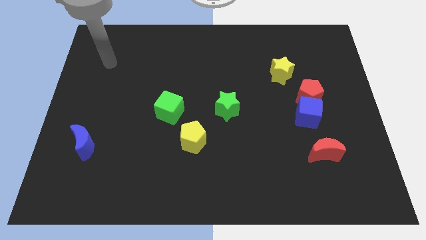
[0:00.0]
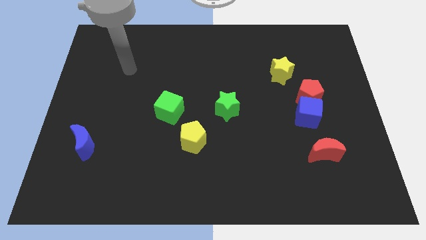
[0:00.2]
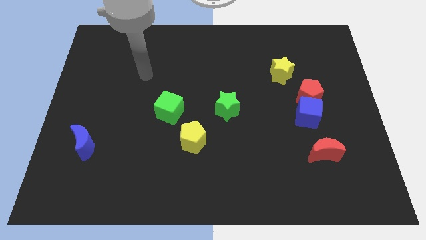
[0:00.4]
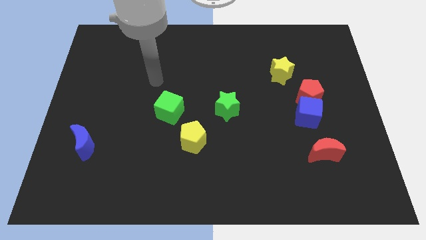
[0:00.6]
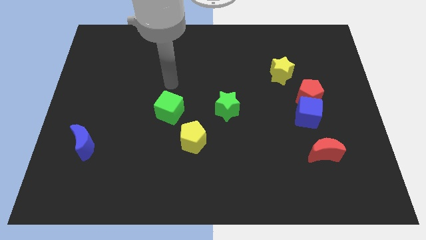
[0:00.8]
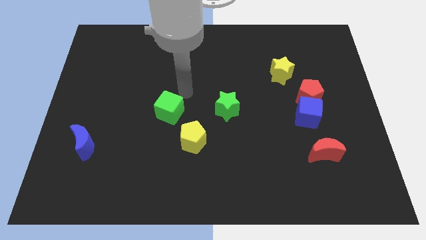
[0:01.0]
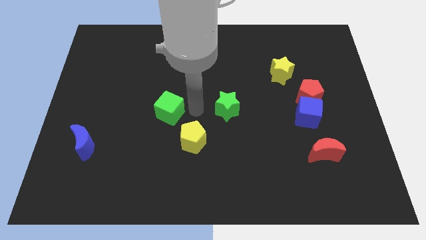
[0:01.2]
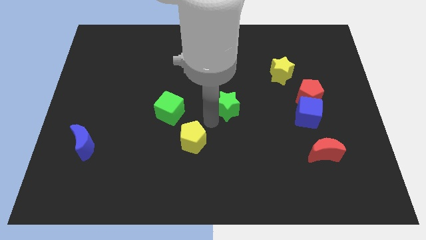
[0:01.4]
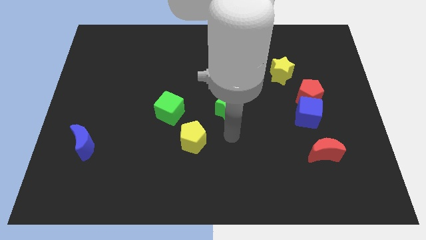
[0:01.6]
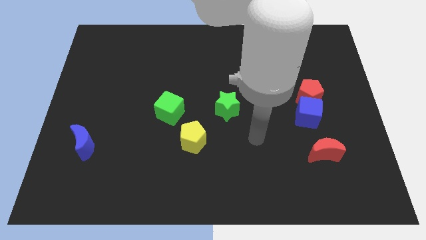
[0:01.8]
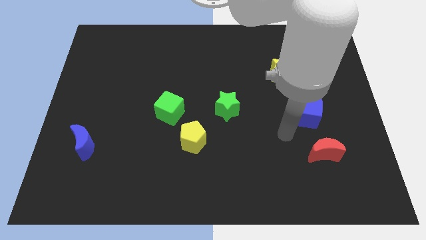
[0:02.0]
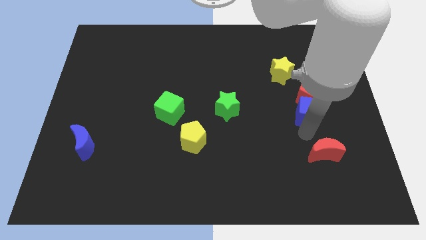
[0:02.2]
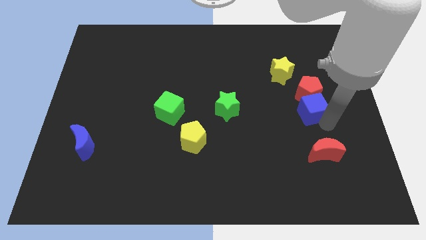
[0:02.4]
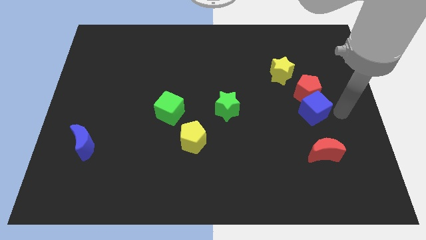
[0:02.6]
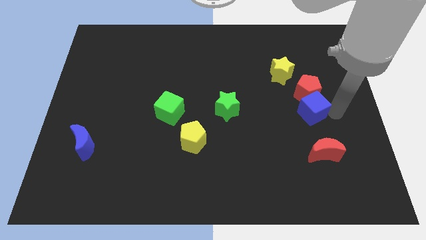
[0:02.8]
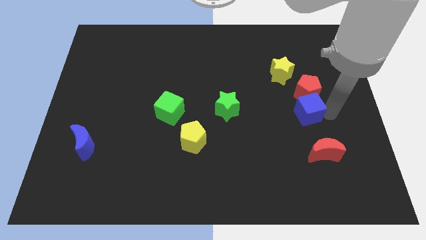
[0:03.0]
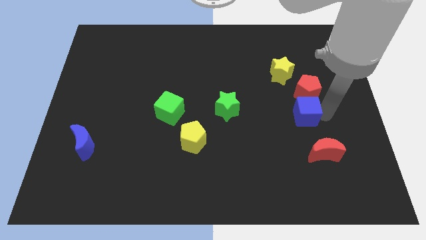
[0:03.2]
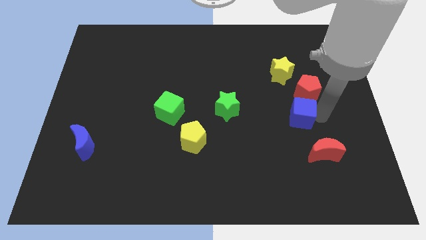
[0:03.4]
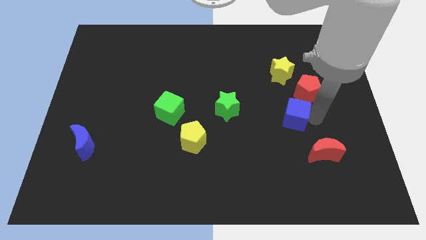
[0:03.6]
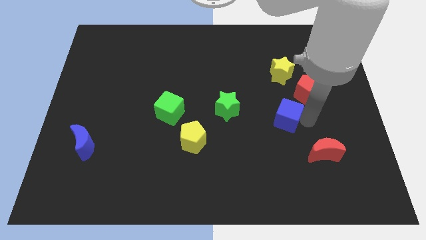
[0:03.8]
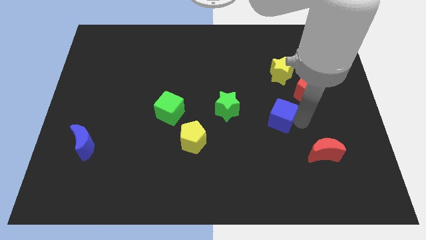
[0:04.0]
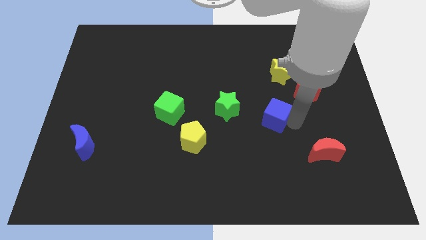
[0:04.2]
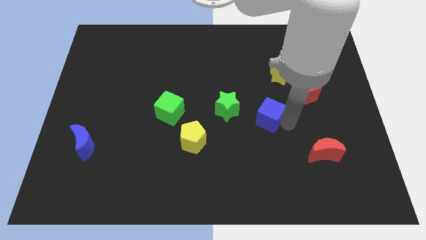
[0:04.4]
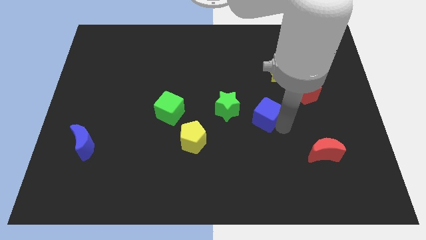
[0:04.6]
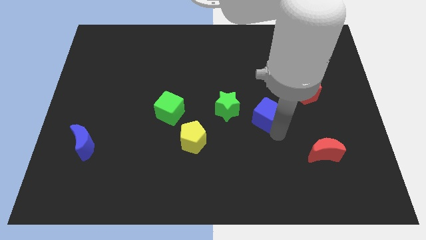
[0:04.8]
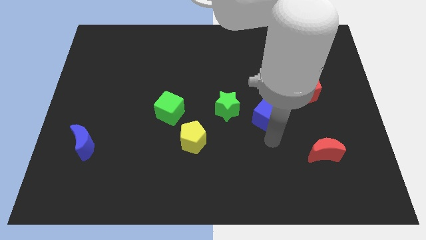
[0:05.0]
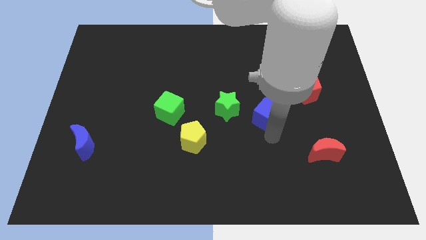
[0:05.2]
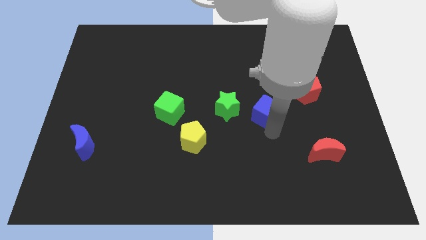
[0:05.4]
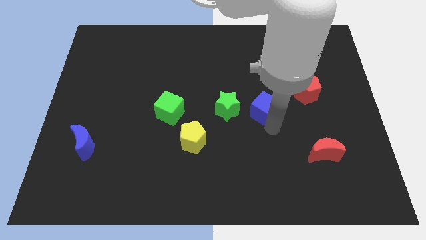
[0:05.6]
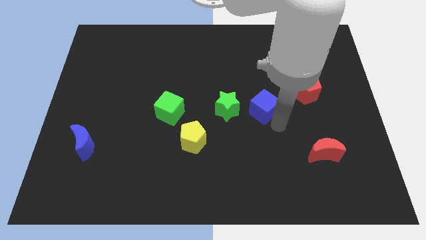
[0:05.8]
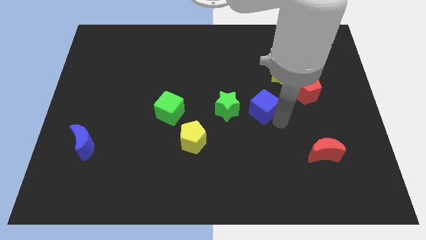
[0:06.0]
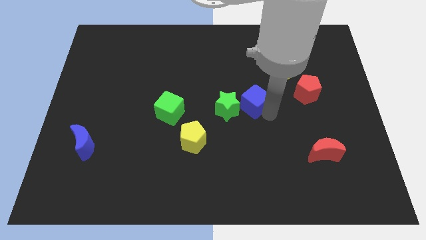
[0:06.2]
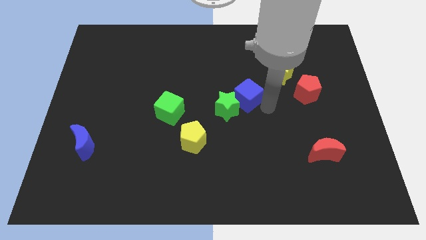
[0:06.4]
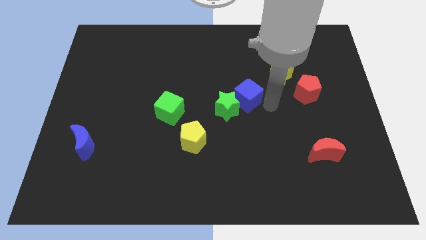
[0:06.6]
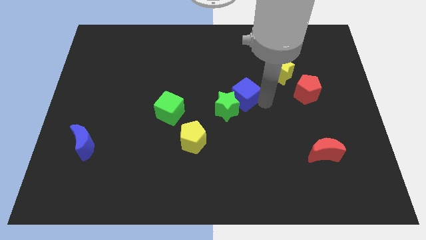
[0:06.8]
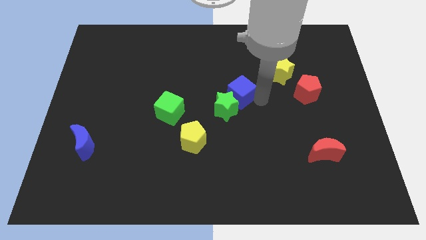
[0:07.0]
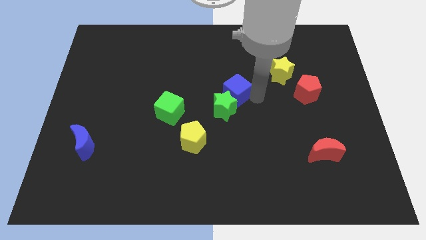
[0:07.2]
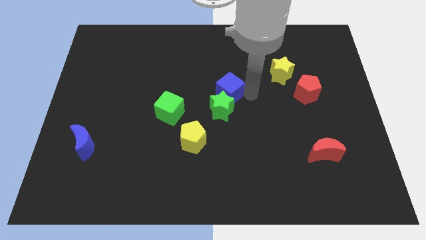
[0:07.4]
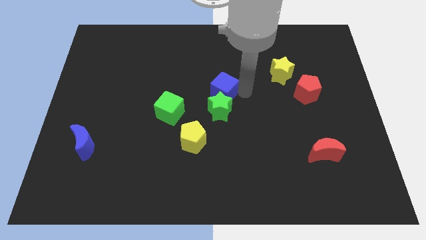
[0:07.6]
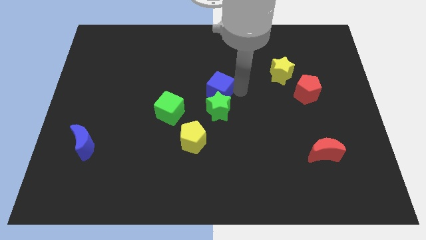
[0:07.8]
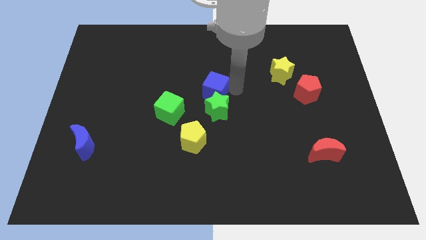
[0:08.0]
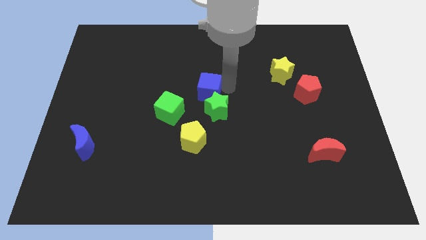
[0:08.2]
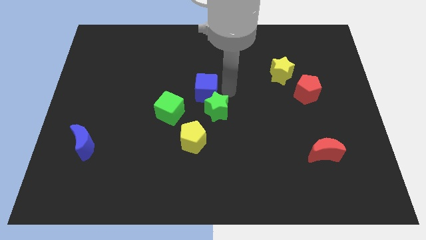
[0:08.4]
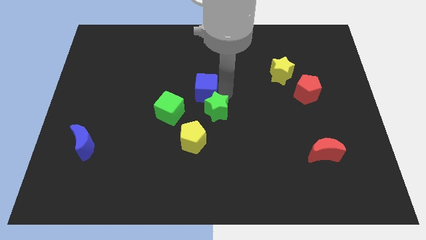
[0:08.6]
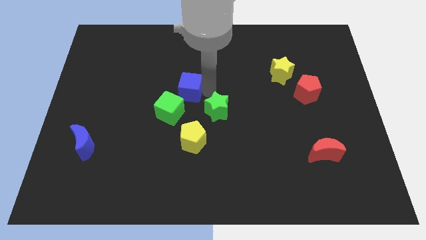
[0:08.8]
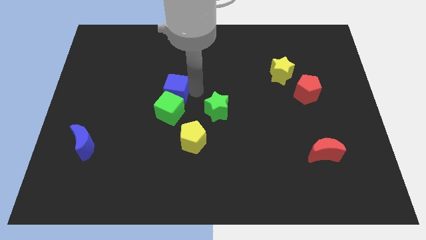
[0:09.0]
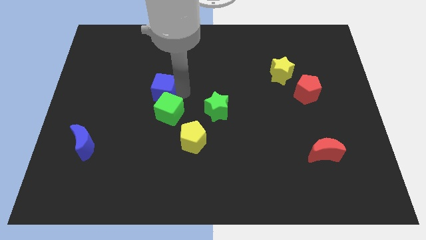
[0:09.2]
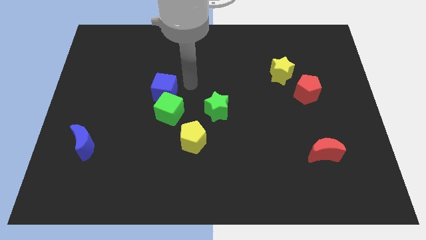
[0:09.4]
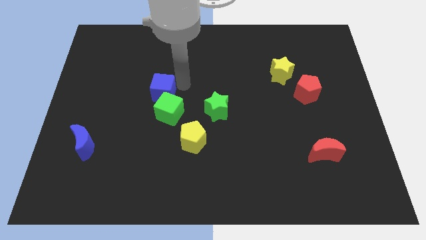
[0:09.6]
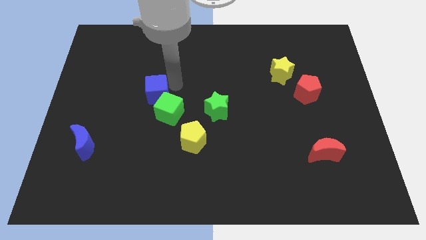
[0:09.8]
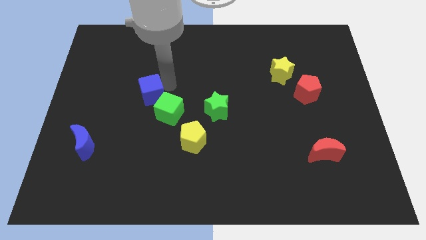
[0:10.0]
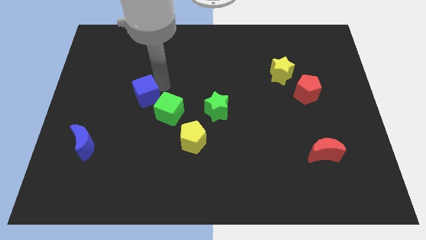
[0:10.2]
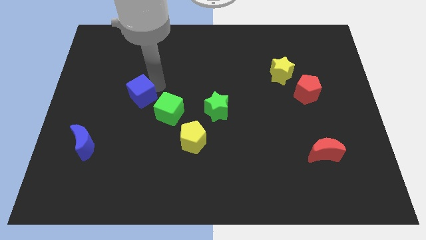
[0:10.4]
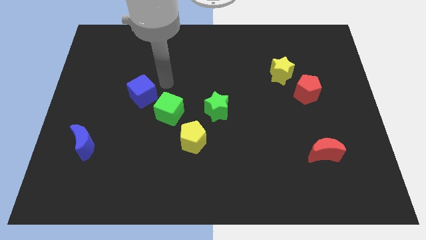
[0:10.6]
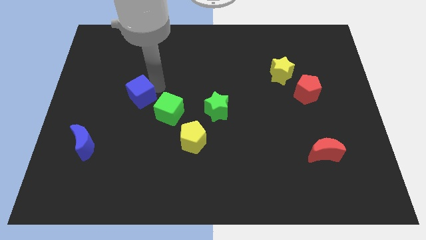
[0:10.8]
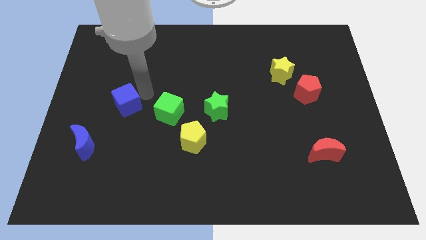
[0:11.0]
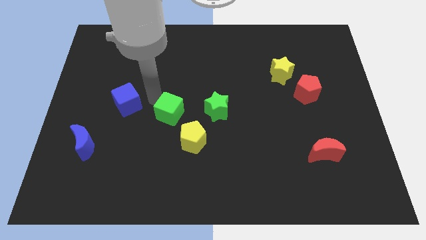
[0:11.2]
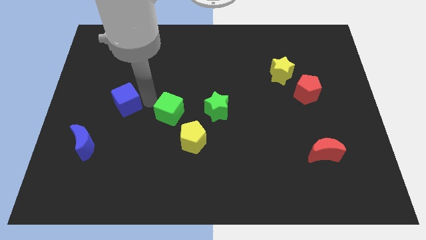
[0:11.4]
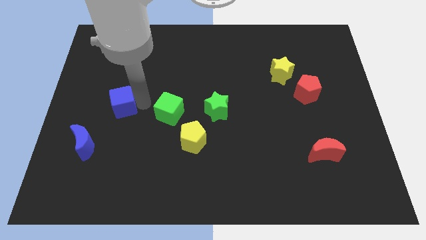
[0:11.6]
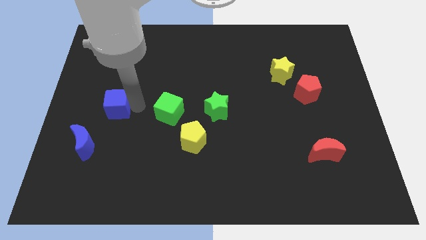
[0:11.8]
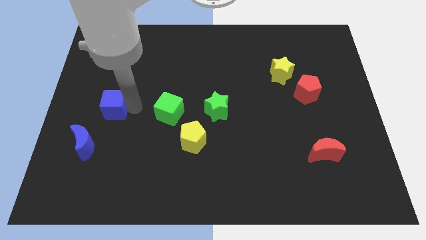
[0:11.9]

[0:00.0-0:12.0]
put the blue cube above the blue moon

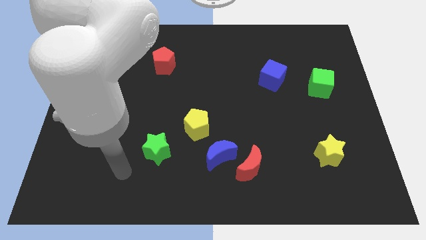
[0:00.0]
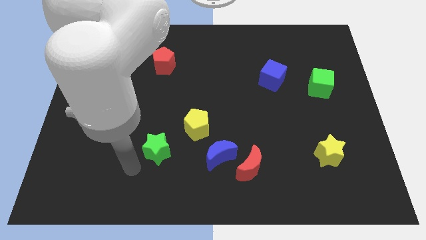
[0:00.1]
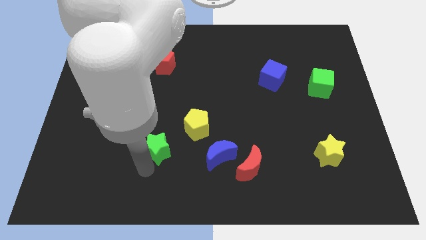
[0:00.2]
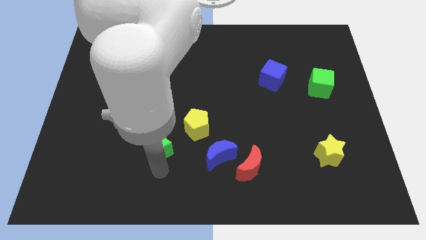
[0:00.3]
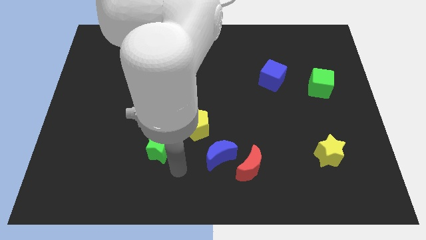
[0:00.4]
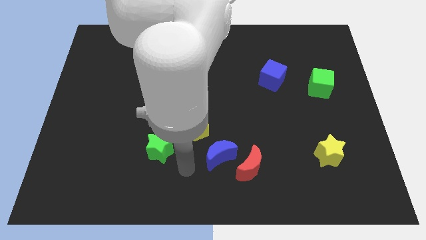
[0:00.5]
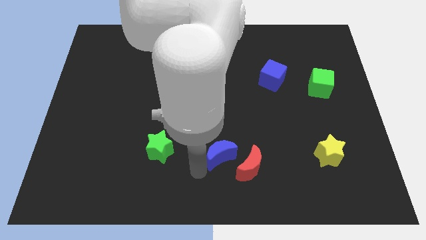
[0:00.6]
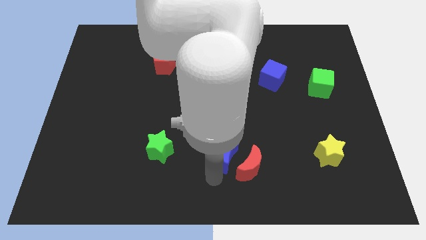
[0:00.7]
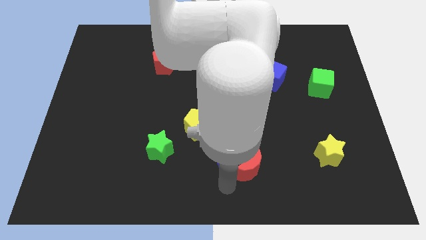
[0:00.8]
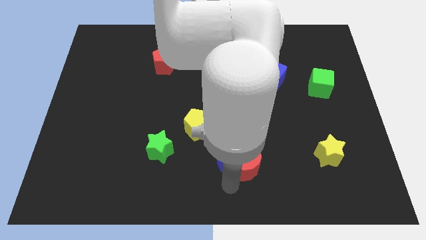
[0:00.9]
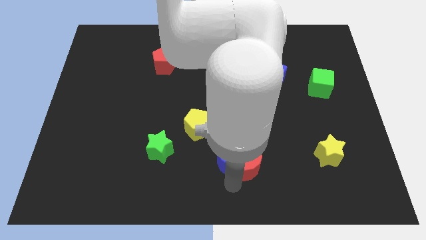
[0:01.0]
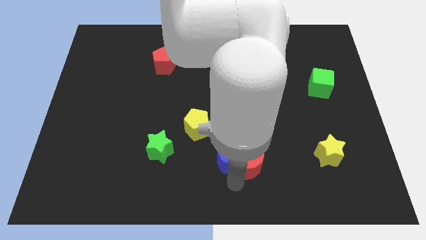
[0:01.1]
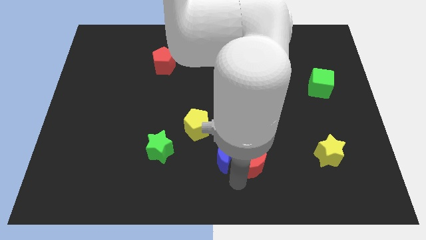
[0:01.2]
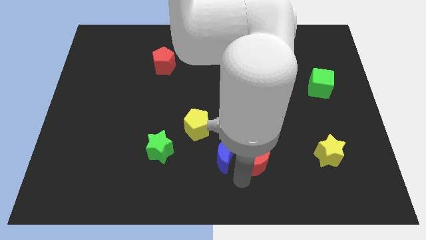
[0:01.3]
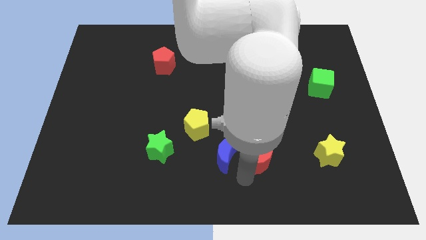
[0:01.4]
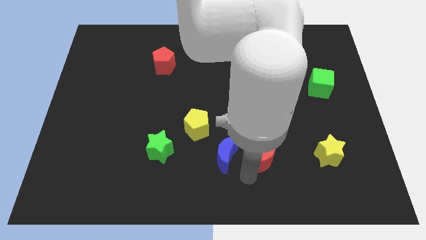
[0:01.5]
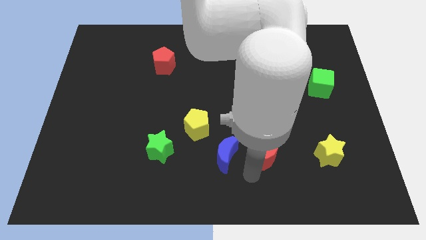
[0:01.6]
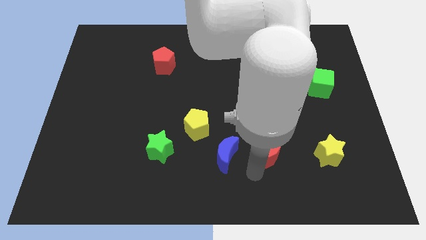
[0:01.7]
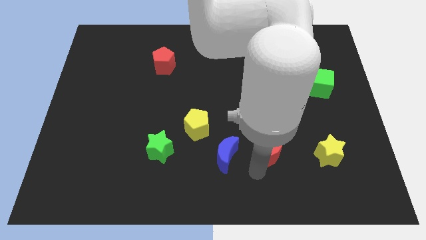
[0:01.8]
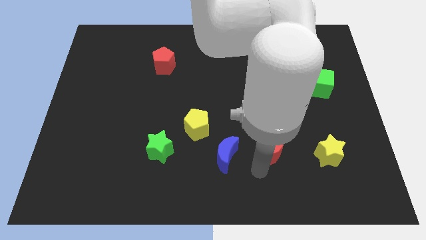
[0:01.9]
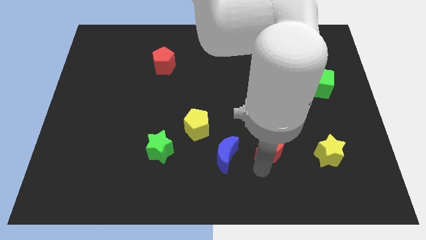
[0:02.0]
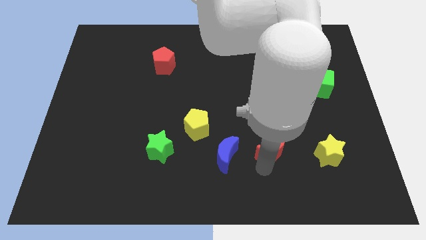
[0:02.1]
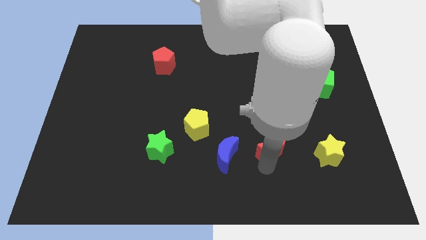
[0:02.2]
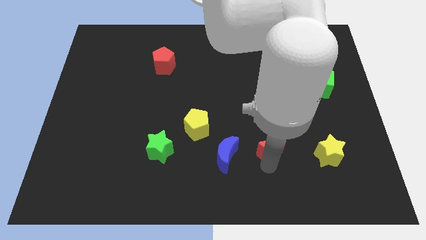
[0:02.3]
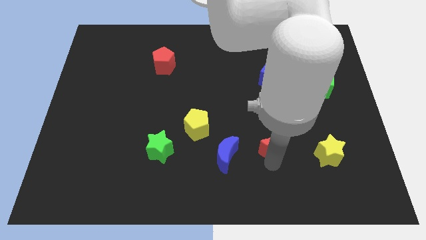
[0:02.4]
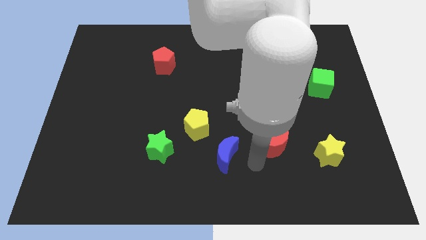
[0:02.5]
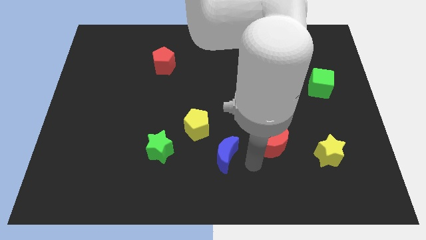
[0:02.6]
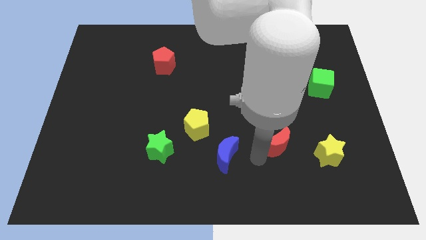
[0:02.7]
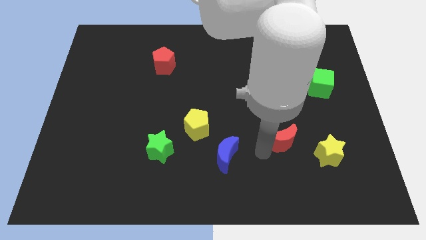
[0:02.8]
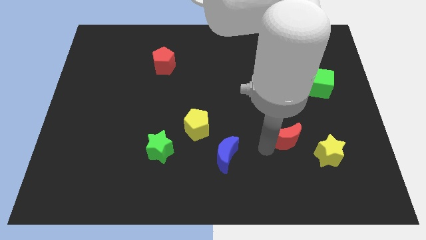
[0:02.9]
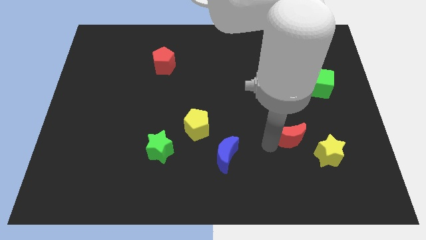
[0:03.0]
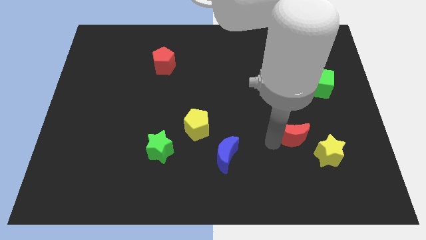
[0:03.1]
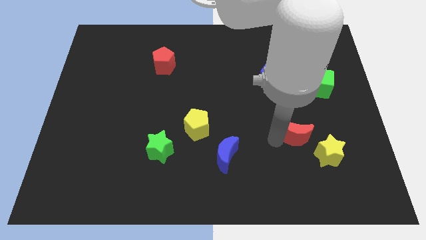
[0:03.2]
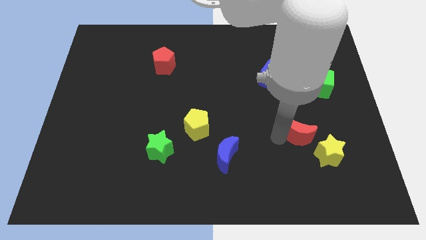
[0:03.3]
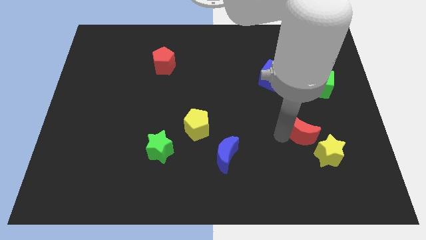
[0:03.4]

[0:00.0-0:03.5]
slide the red moon to the top of the yellow star
